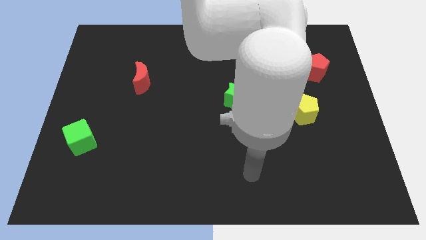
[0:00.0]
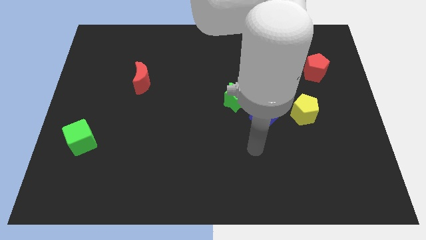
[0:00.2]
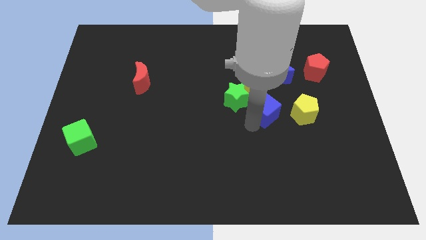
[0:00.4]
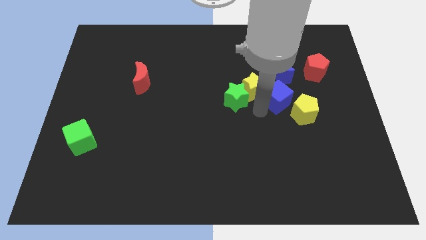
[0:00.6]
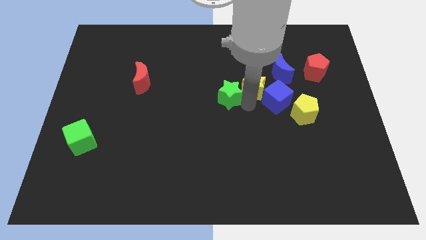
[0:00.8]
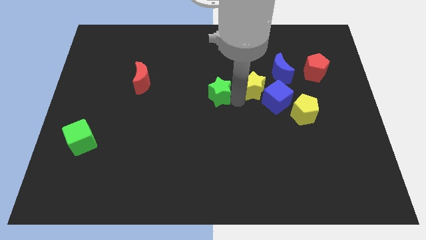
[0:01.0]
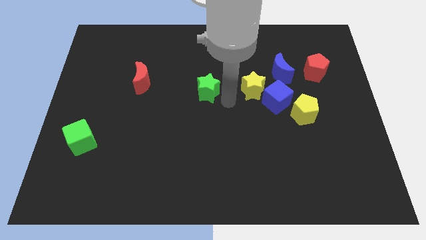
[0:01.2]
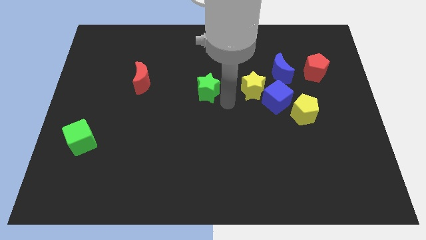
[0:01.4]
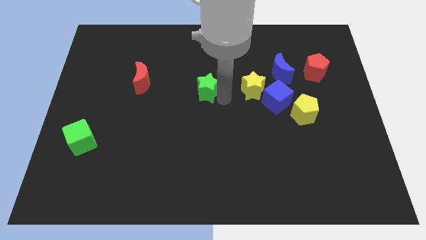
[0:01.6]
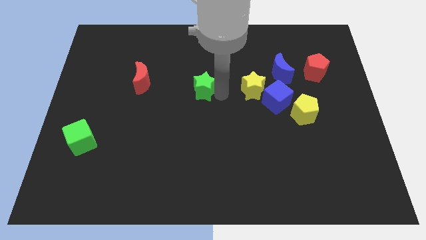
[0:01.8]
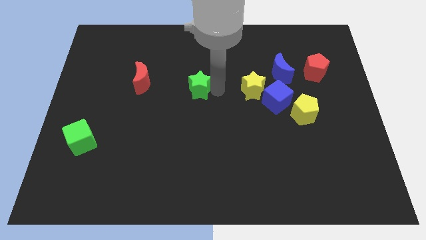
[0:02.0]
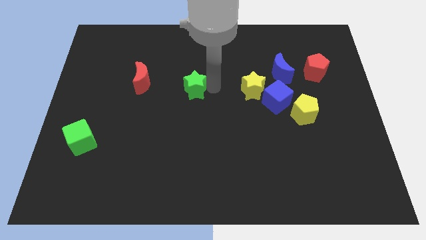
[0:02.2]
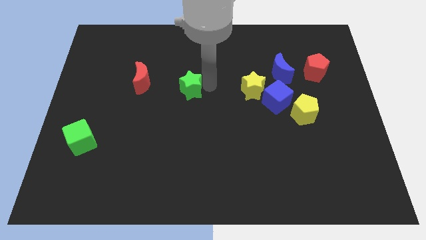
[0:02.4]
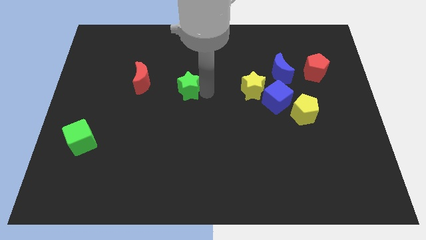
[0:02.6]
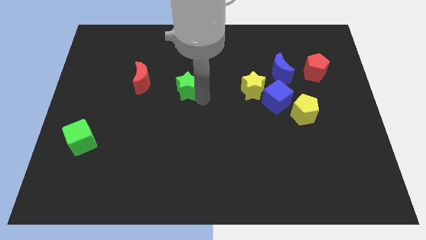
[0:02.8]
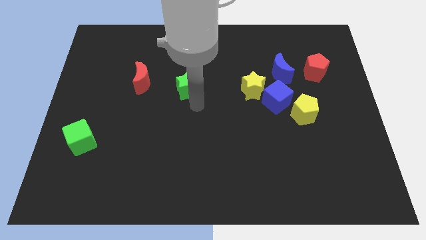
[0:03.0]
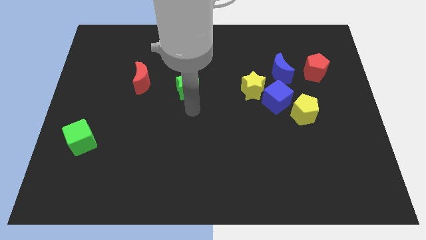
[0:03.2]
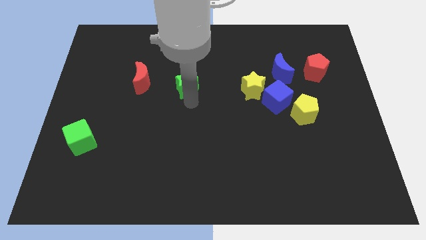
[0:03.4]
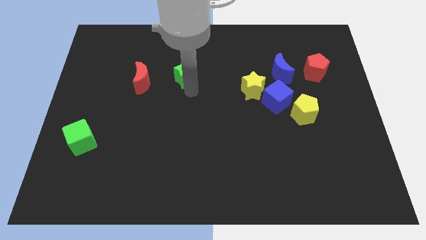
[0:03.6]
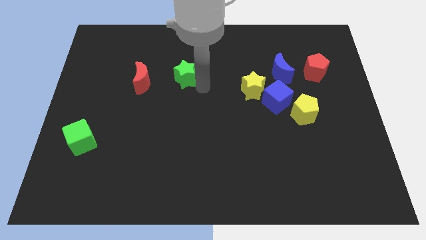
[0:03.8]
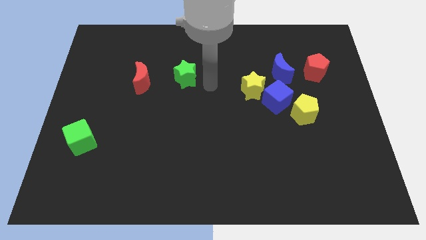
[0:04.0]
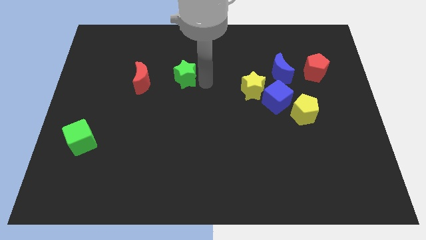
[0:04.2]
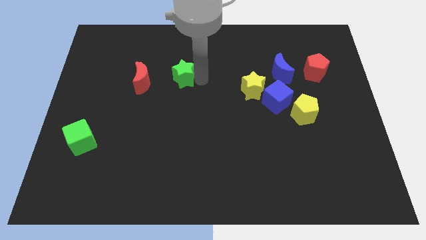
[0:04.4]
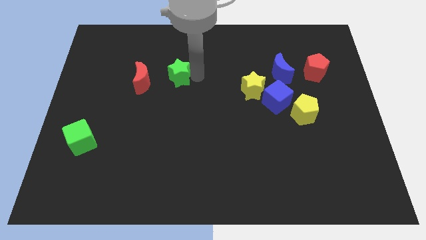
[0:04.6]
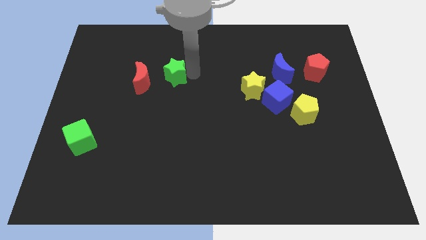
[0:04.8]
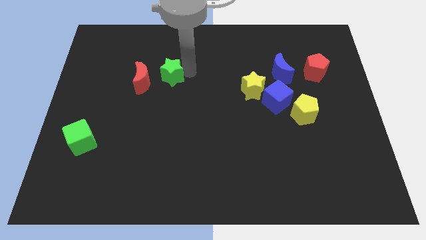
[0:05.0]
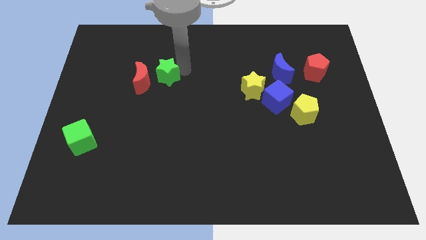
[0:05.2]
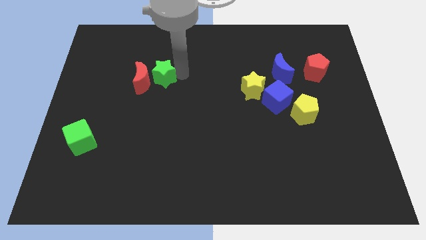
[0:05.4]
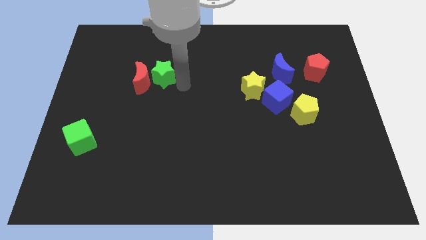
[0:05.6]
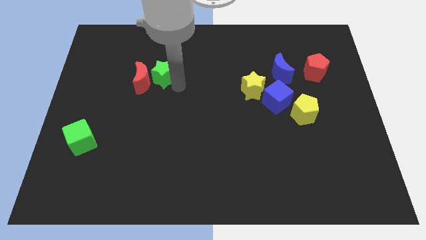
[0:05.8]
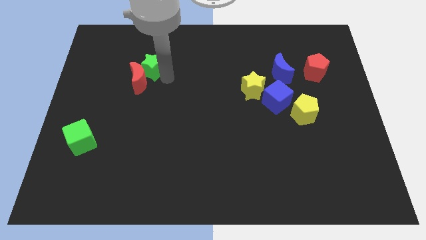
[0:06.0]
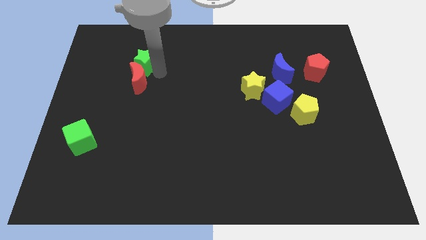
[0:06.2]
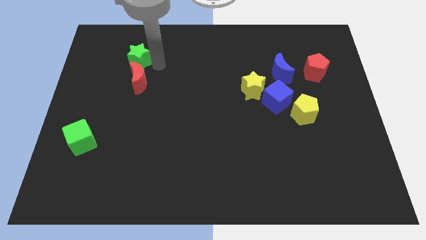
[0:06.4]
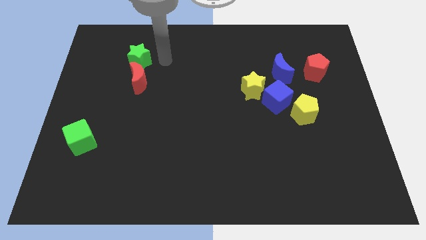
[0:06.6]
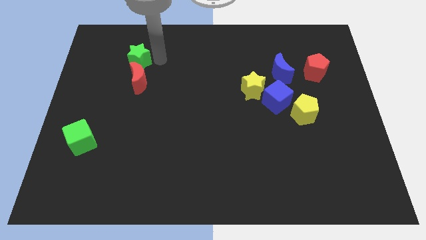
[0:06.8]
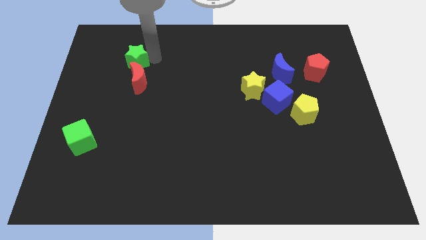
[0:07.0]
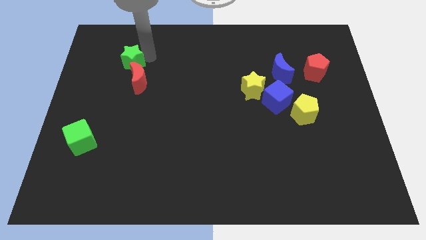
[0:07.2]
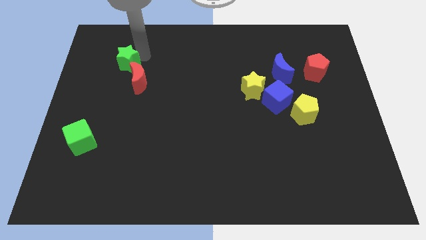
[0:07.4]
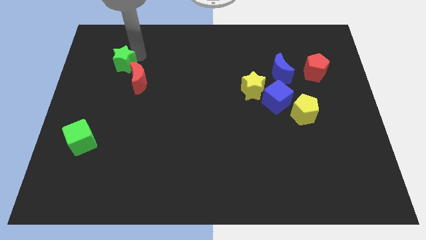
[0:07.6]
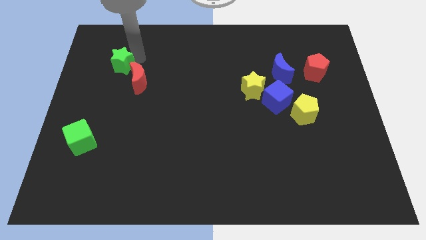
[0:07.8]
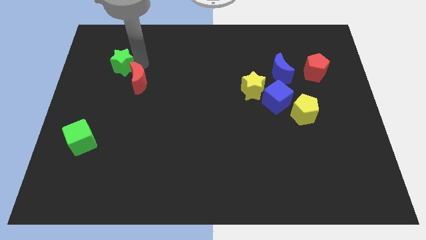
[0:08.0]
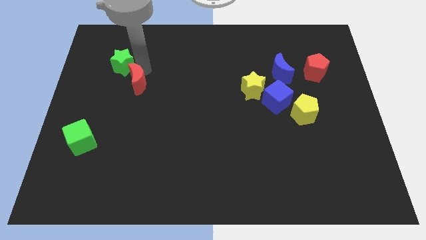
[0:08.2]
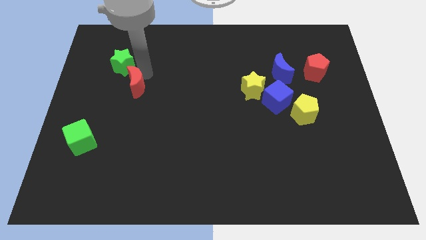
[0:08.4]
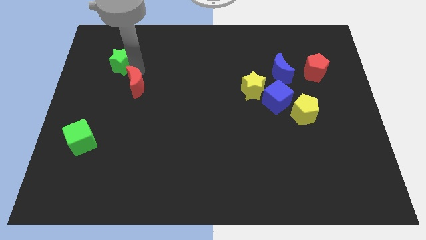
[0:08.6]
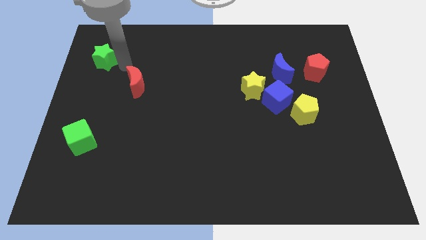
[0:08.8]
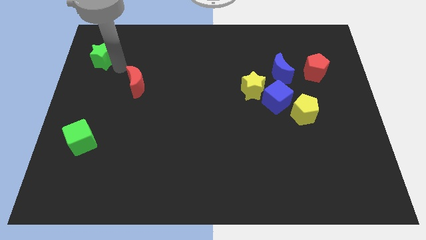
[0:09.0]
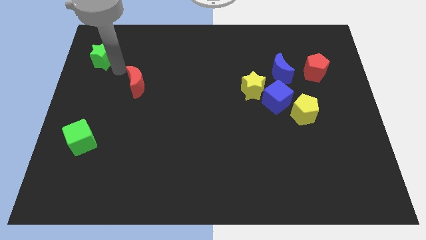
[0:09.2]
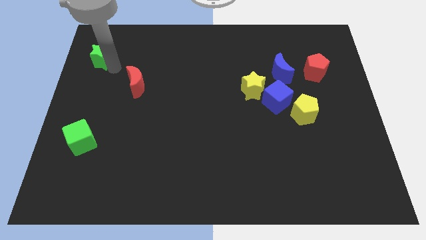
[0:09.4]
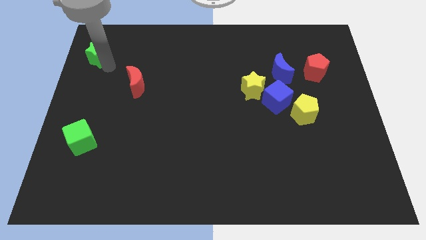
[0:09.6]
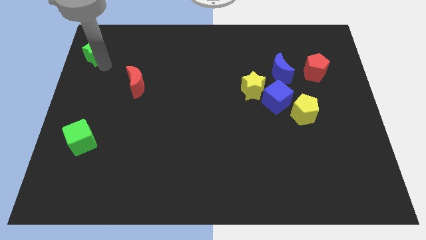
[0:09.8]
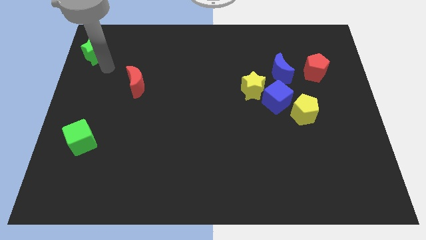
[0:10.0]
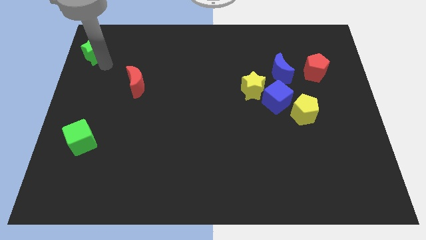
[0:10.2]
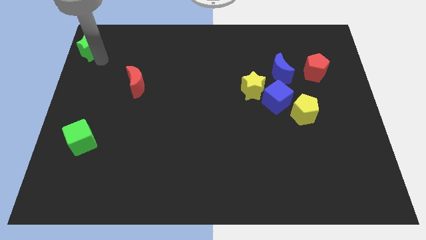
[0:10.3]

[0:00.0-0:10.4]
put the green star to the top left

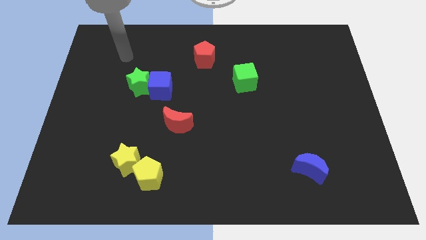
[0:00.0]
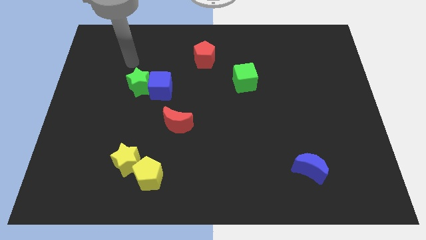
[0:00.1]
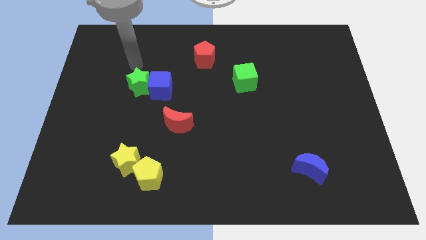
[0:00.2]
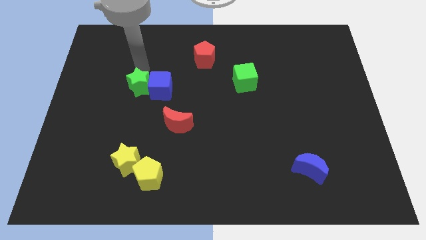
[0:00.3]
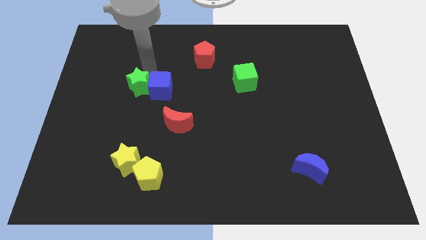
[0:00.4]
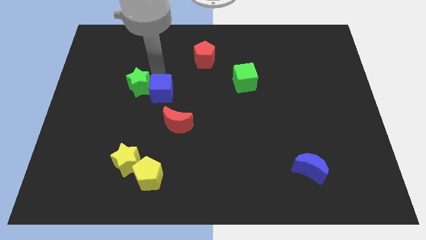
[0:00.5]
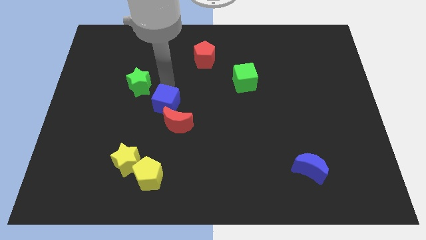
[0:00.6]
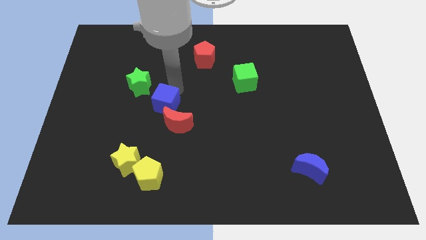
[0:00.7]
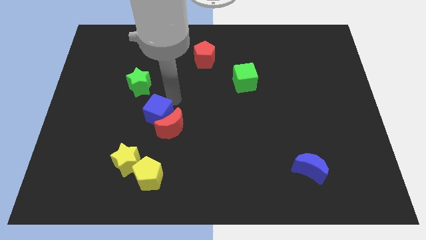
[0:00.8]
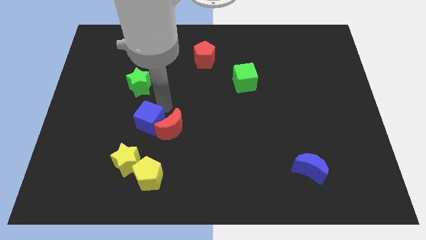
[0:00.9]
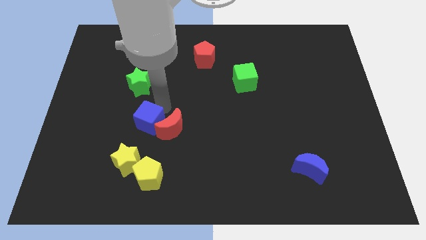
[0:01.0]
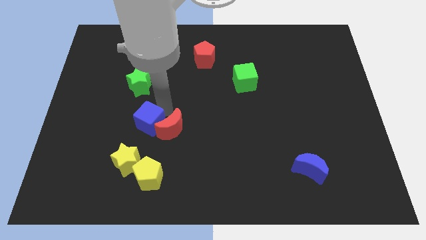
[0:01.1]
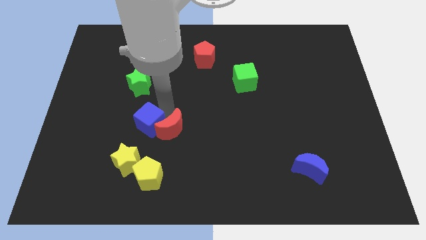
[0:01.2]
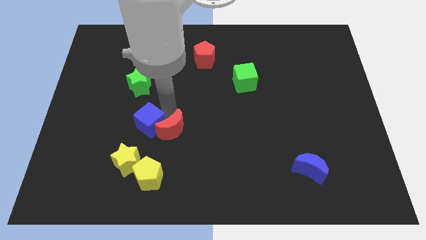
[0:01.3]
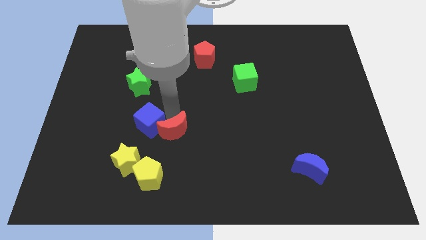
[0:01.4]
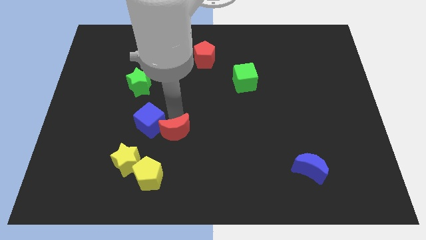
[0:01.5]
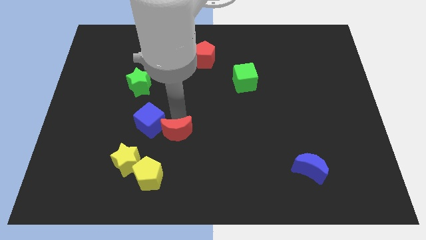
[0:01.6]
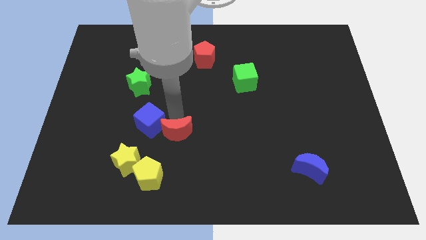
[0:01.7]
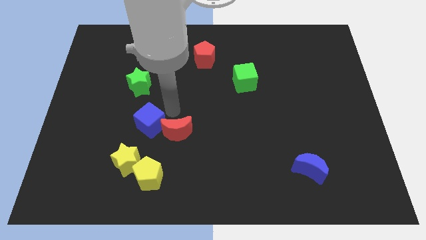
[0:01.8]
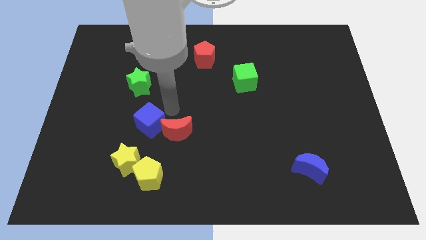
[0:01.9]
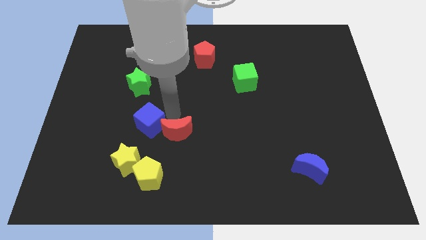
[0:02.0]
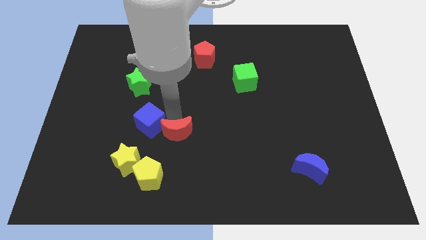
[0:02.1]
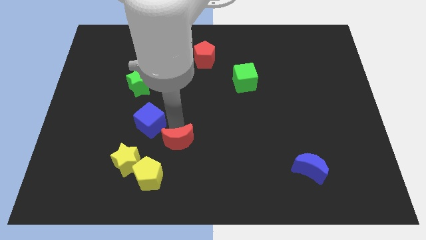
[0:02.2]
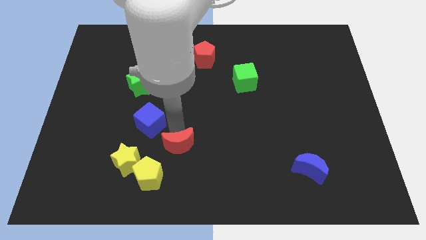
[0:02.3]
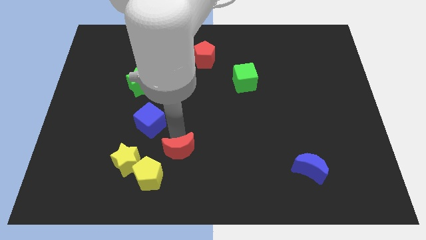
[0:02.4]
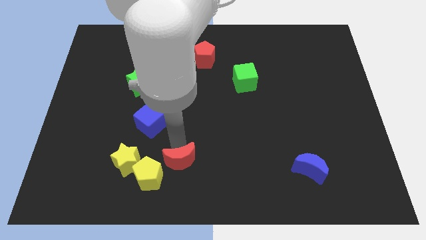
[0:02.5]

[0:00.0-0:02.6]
push the red moon to the bottom side
